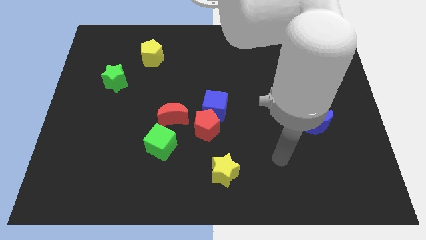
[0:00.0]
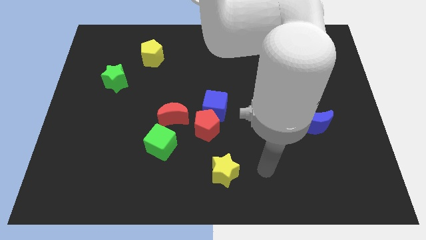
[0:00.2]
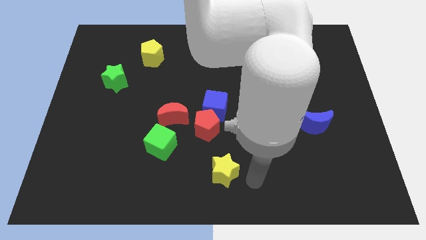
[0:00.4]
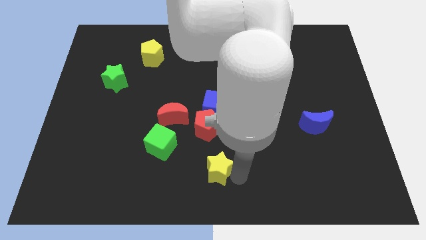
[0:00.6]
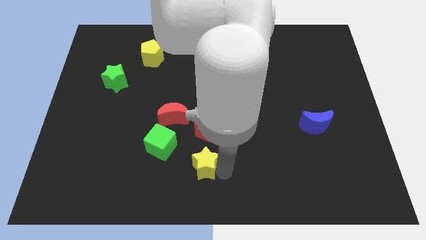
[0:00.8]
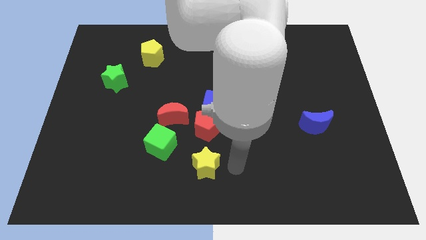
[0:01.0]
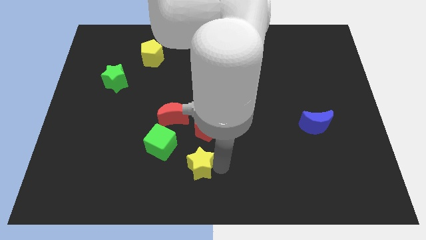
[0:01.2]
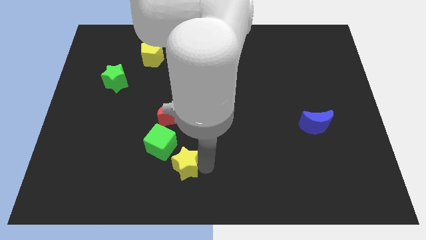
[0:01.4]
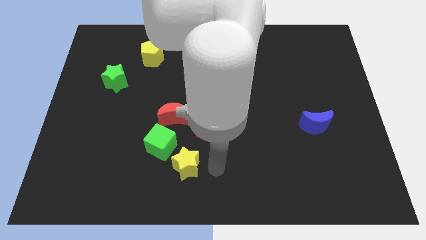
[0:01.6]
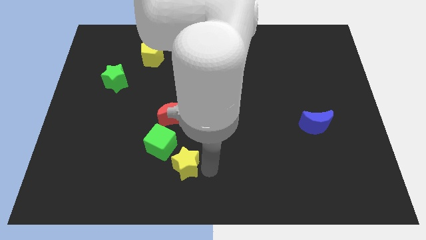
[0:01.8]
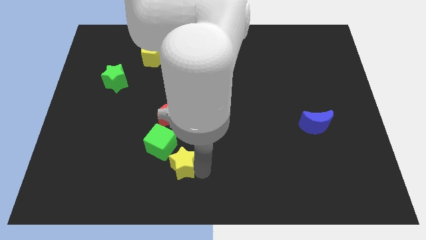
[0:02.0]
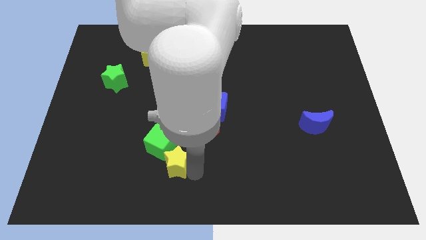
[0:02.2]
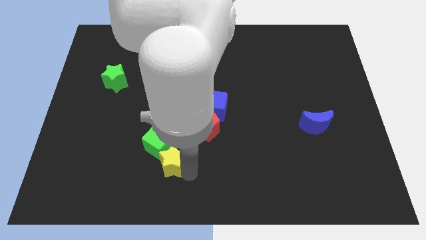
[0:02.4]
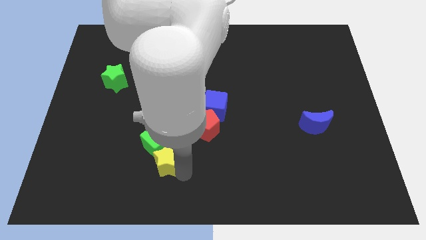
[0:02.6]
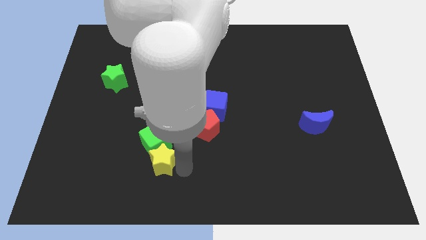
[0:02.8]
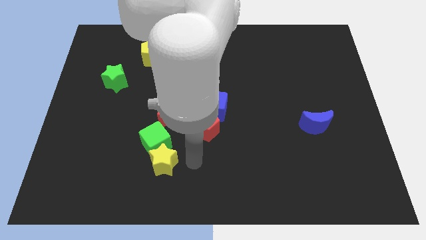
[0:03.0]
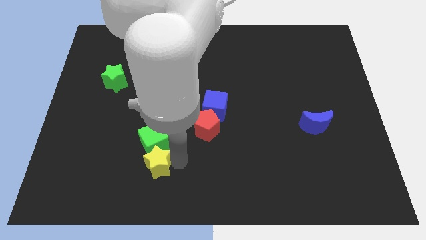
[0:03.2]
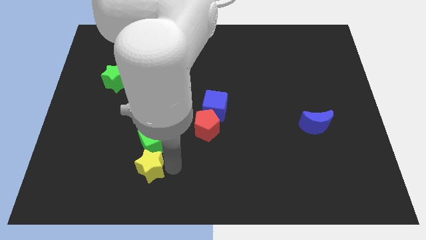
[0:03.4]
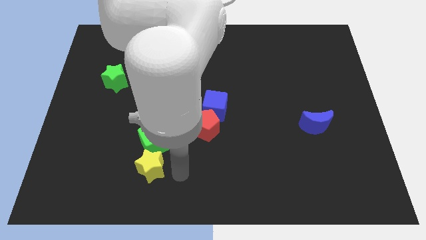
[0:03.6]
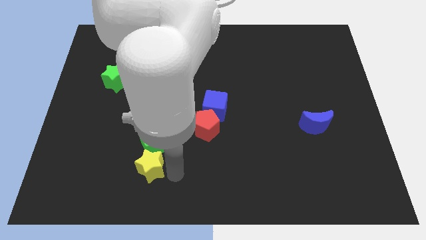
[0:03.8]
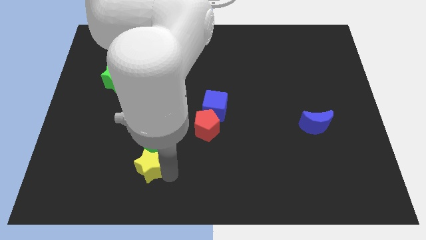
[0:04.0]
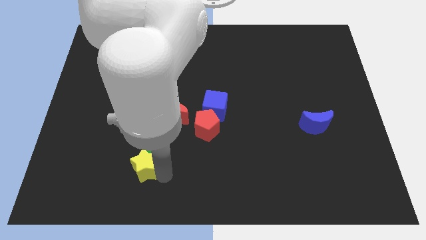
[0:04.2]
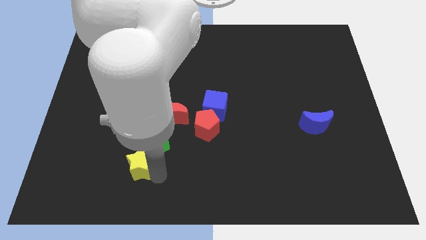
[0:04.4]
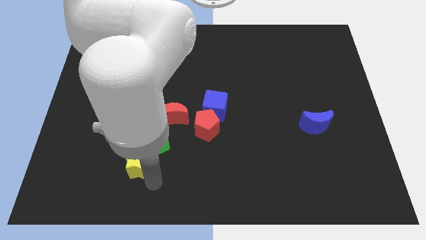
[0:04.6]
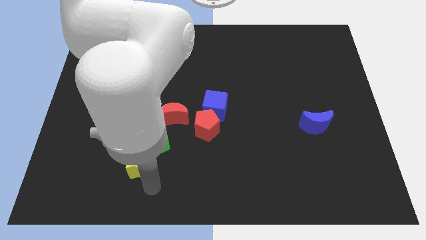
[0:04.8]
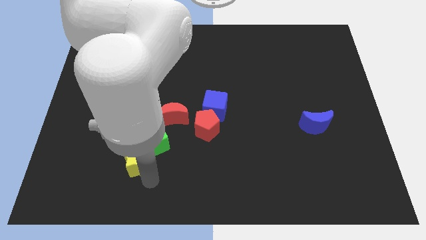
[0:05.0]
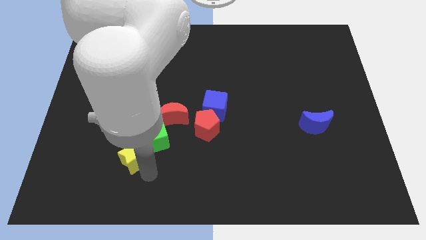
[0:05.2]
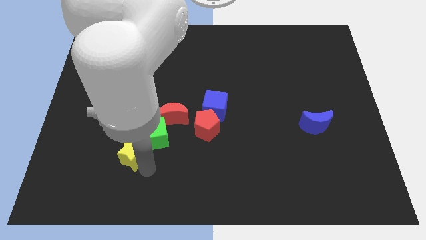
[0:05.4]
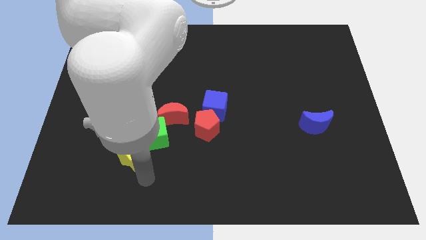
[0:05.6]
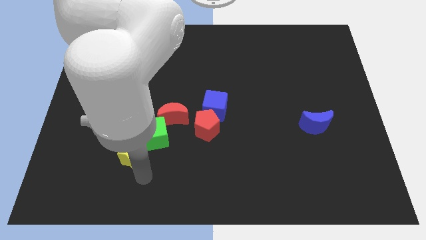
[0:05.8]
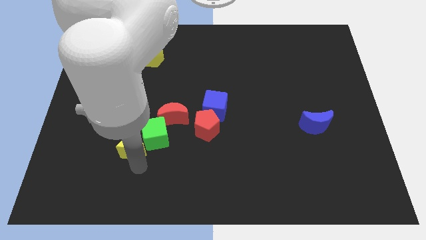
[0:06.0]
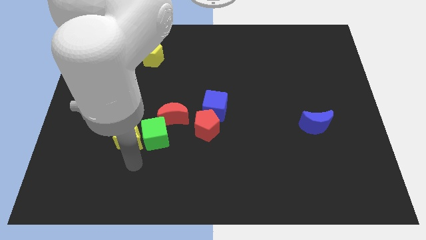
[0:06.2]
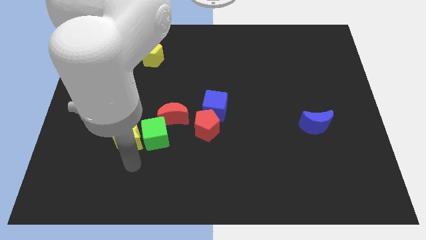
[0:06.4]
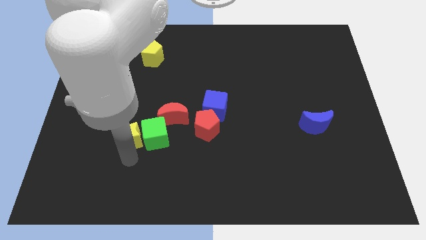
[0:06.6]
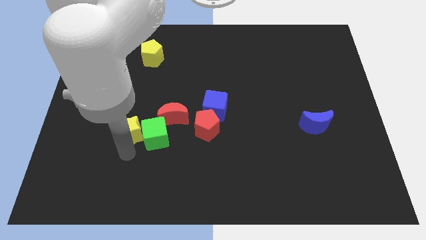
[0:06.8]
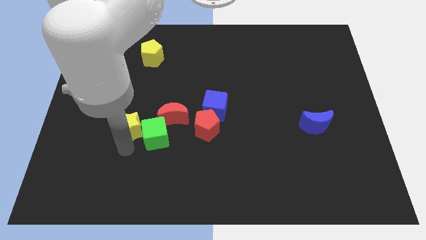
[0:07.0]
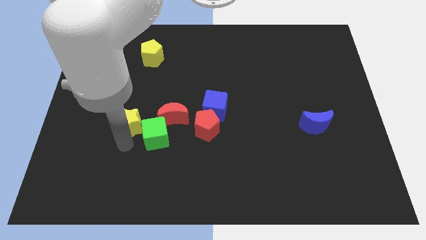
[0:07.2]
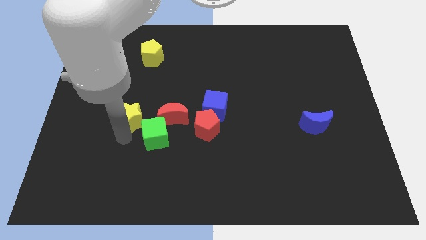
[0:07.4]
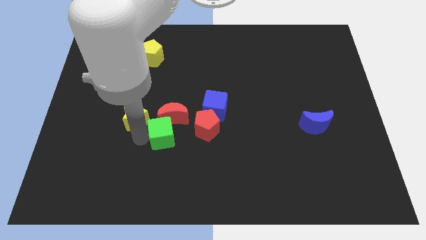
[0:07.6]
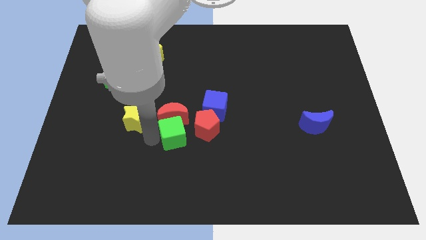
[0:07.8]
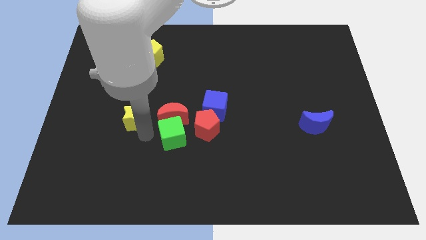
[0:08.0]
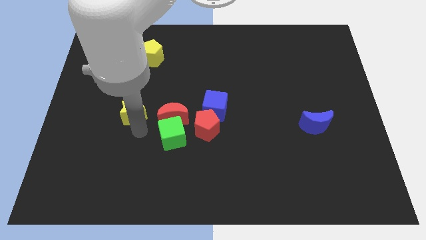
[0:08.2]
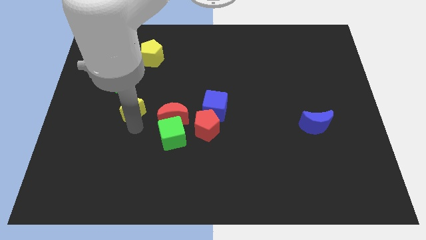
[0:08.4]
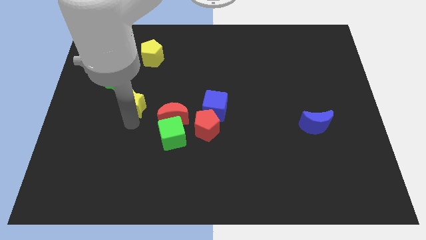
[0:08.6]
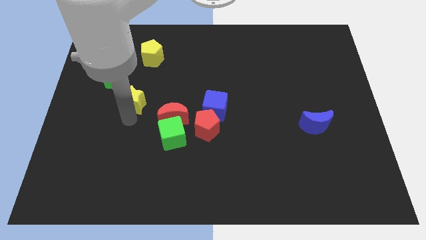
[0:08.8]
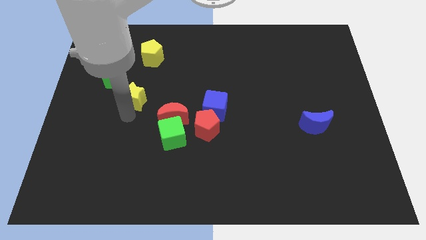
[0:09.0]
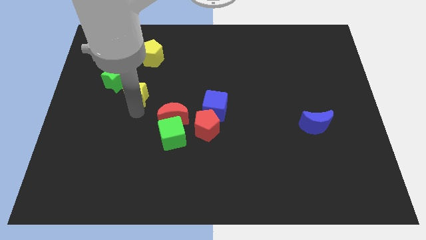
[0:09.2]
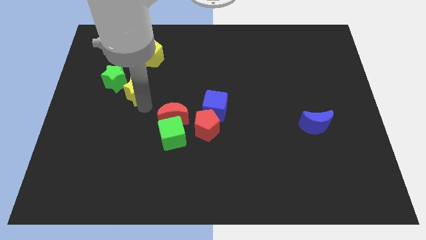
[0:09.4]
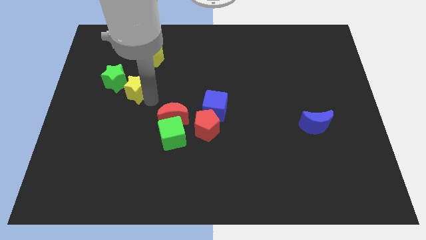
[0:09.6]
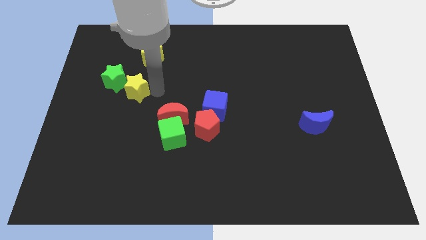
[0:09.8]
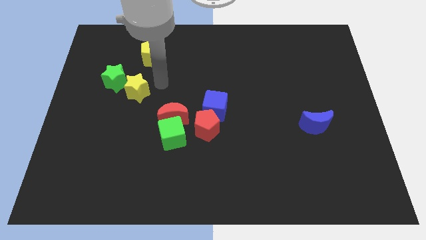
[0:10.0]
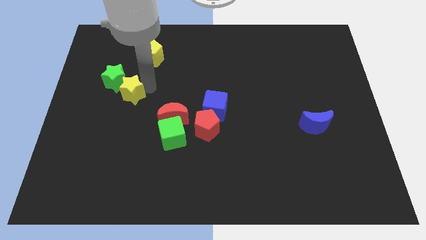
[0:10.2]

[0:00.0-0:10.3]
put the yellow star towards the green star

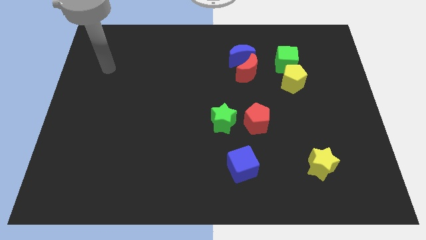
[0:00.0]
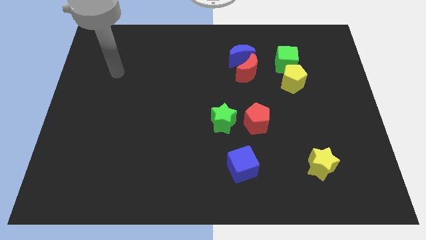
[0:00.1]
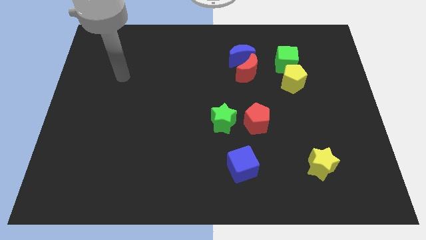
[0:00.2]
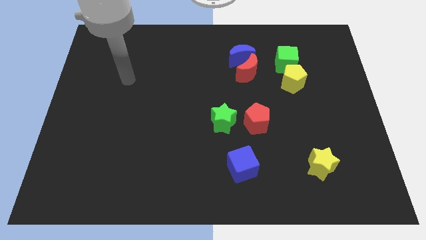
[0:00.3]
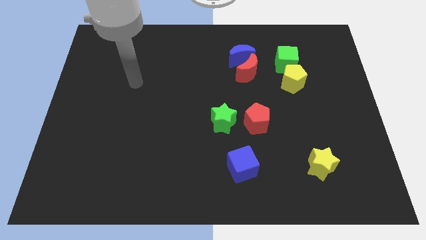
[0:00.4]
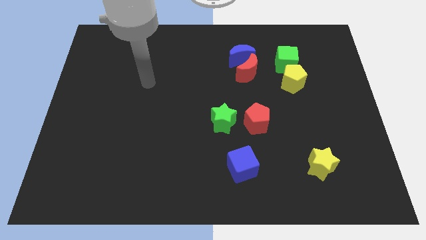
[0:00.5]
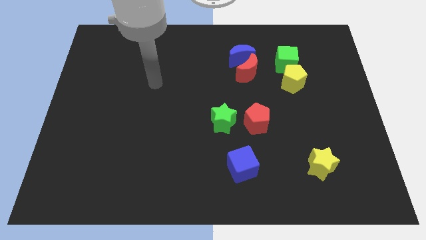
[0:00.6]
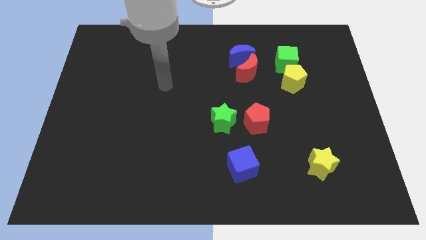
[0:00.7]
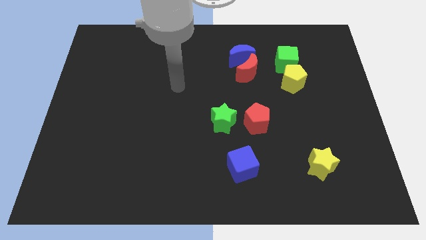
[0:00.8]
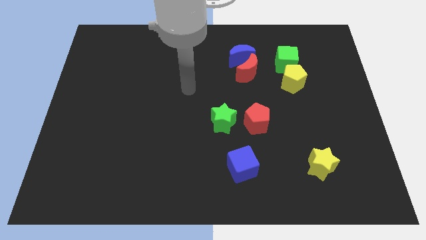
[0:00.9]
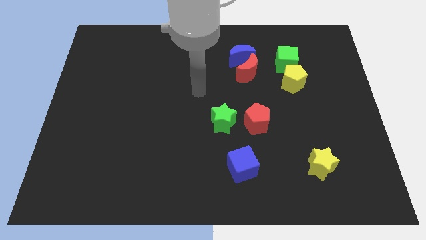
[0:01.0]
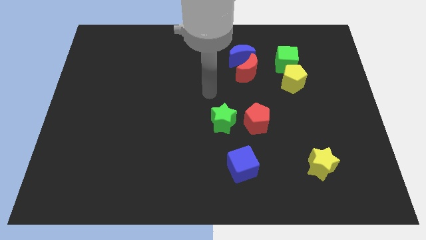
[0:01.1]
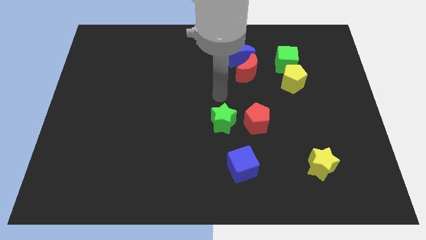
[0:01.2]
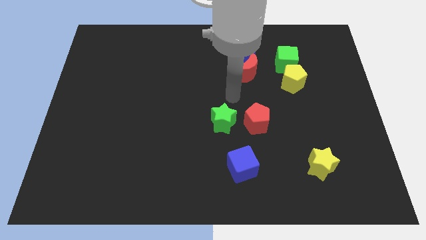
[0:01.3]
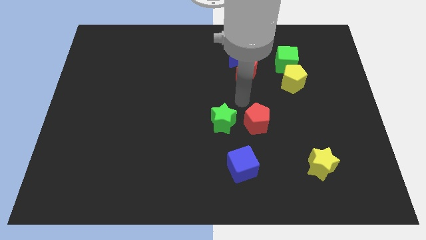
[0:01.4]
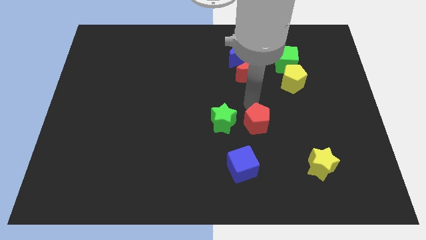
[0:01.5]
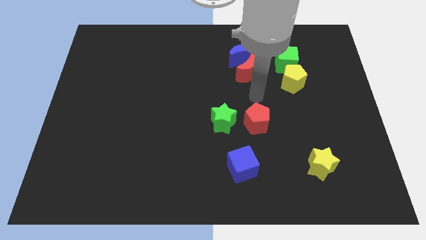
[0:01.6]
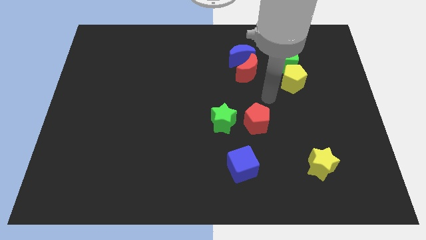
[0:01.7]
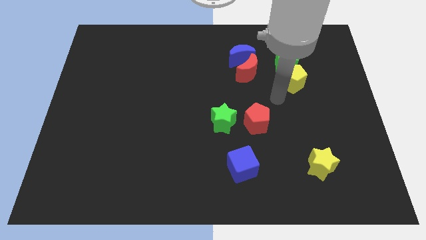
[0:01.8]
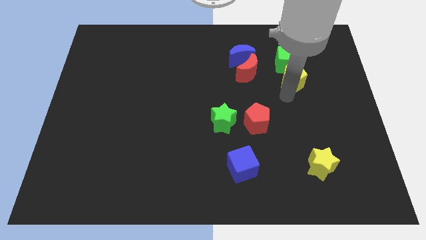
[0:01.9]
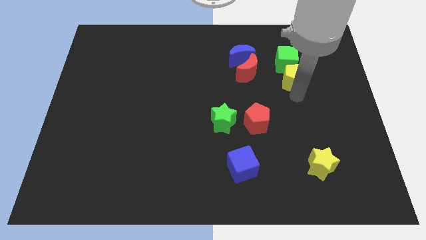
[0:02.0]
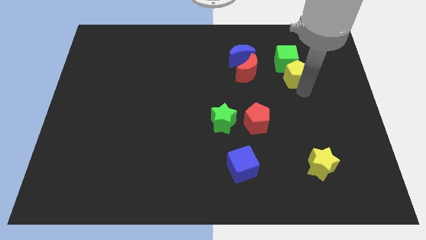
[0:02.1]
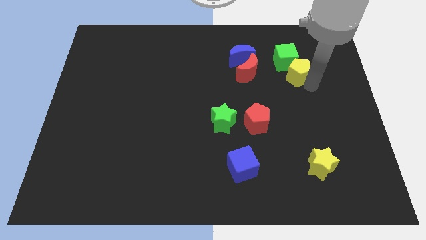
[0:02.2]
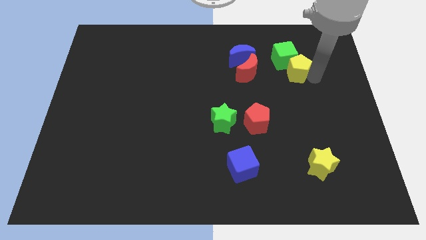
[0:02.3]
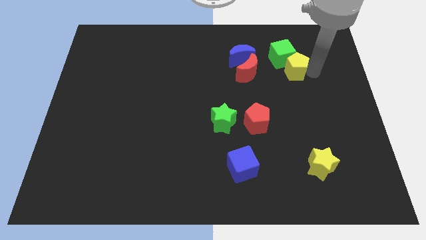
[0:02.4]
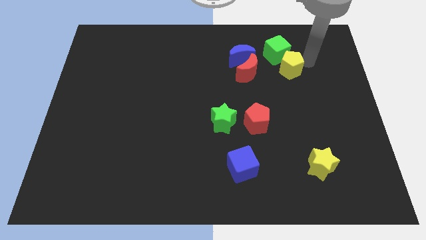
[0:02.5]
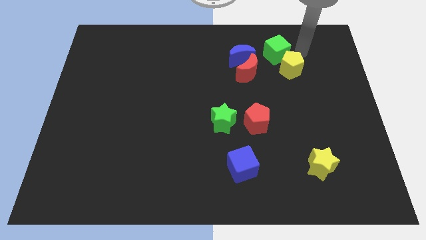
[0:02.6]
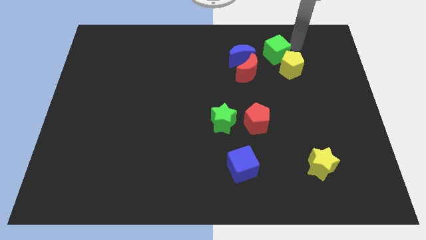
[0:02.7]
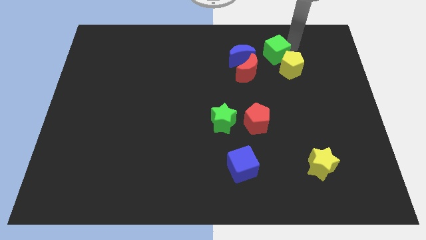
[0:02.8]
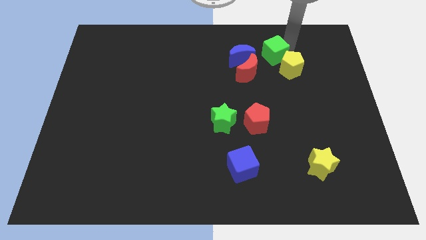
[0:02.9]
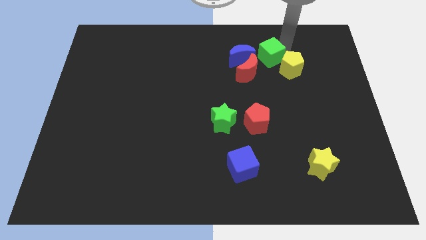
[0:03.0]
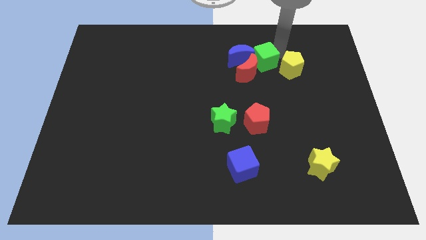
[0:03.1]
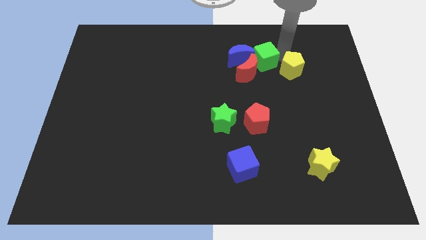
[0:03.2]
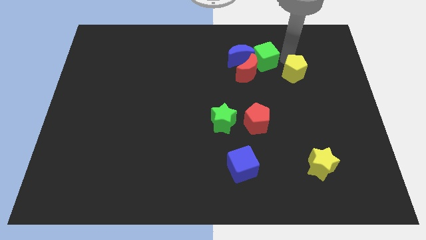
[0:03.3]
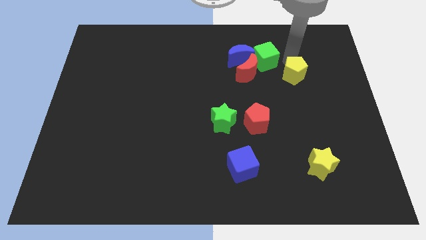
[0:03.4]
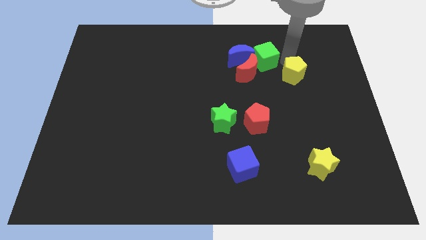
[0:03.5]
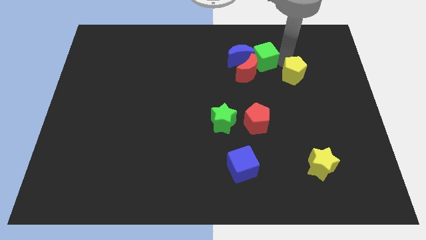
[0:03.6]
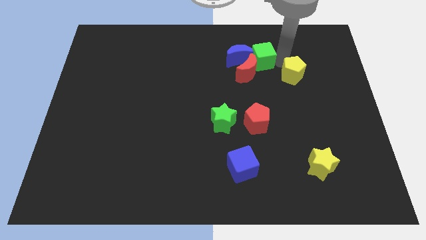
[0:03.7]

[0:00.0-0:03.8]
put the green cube to the blue moon
